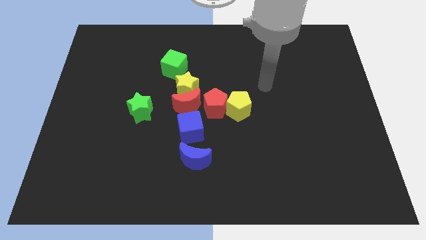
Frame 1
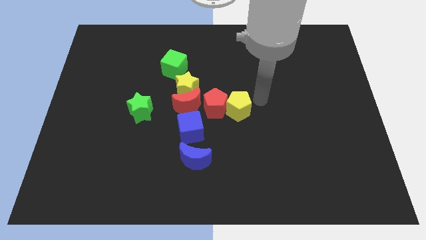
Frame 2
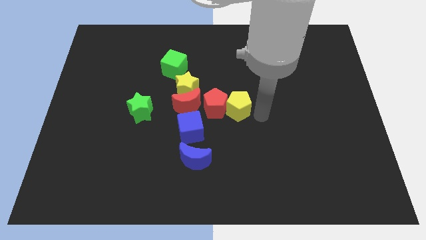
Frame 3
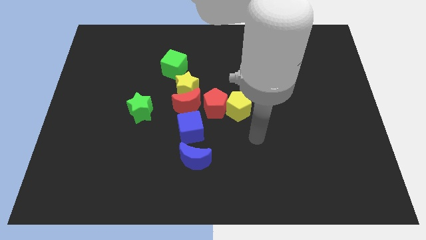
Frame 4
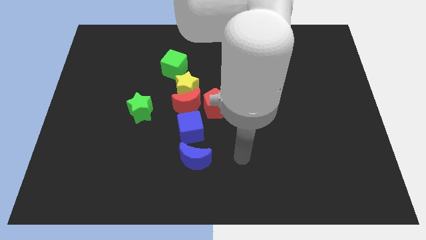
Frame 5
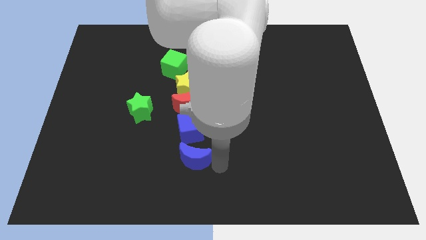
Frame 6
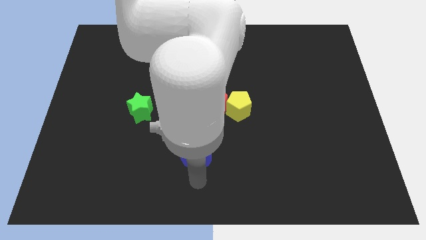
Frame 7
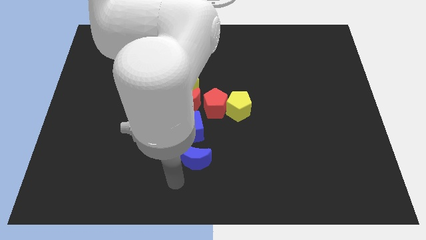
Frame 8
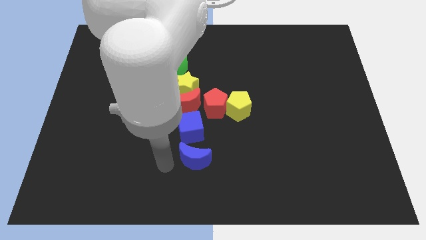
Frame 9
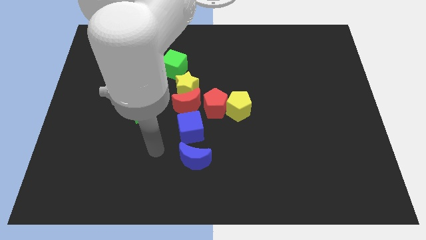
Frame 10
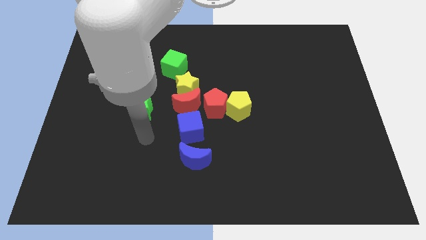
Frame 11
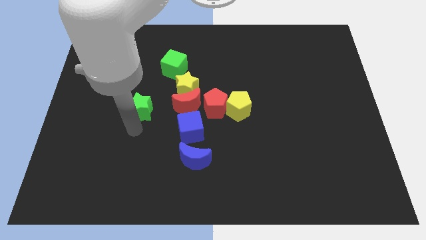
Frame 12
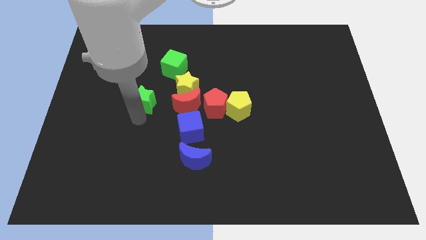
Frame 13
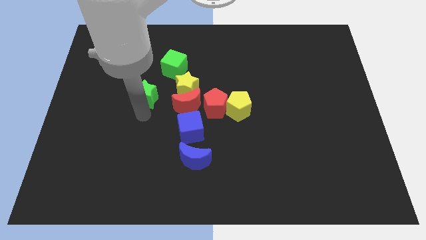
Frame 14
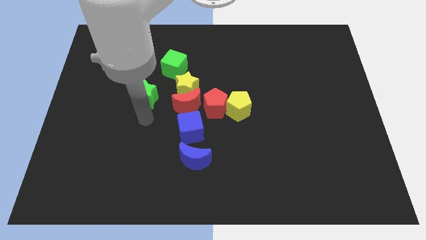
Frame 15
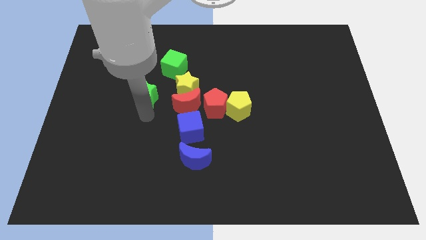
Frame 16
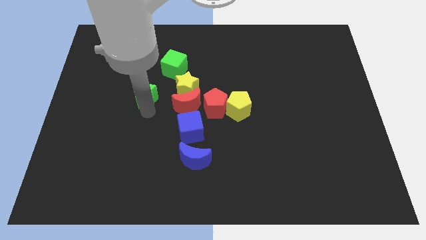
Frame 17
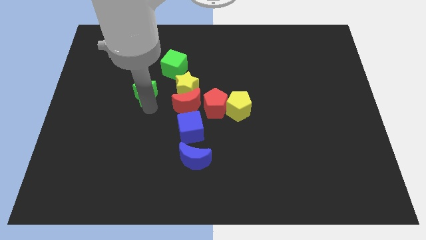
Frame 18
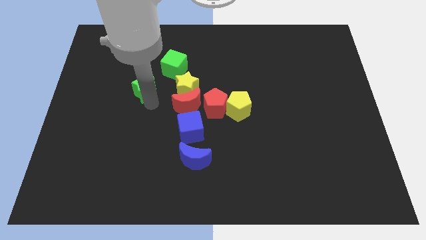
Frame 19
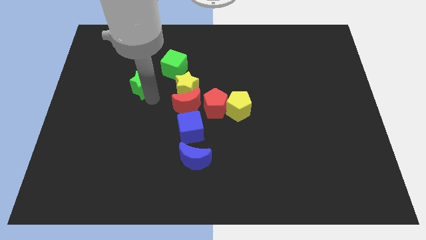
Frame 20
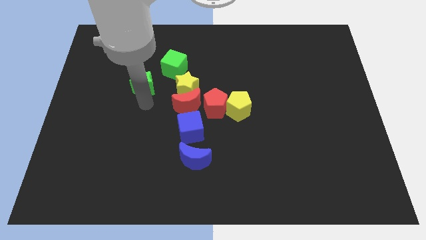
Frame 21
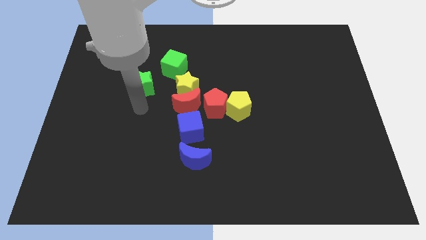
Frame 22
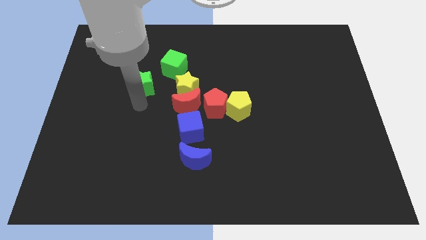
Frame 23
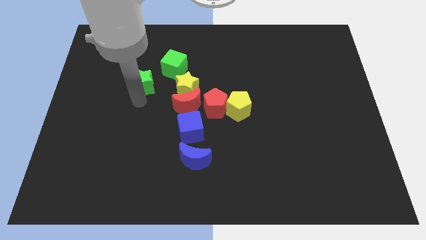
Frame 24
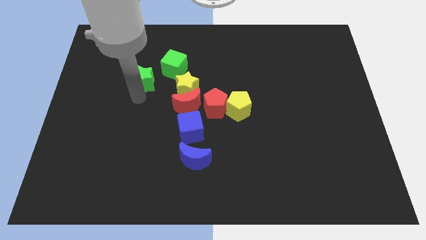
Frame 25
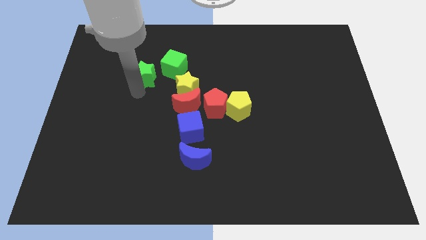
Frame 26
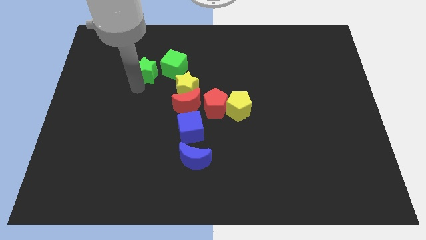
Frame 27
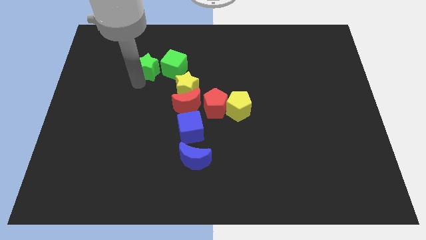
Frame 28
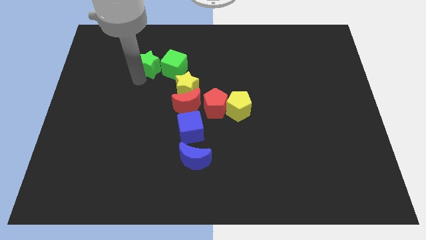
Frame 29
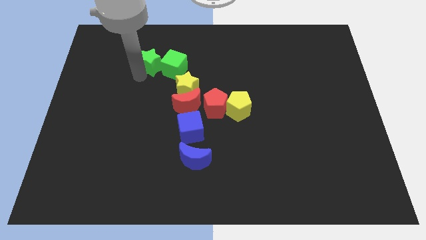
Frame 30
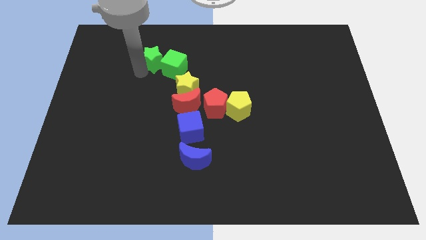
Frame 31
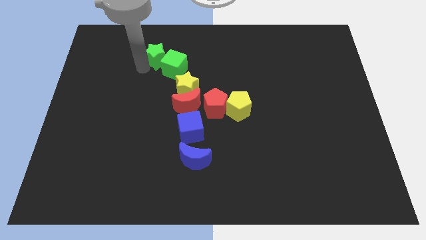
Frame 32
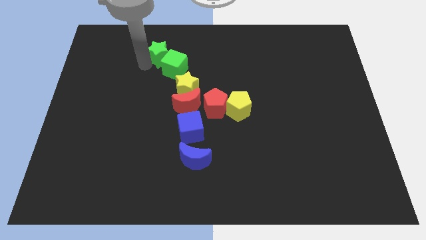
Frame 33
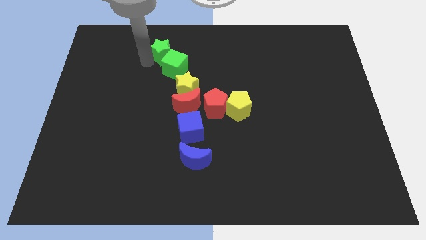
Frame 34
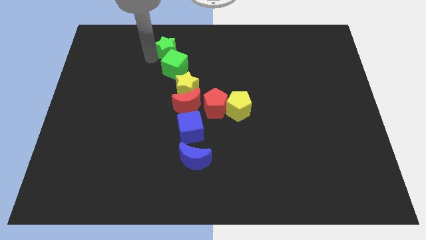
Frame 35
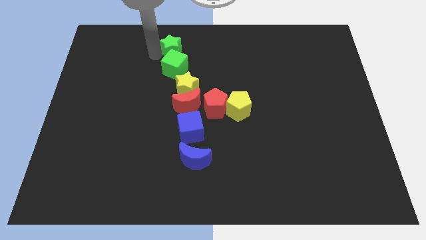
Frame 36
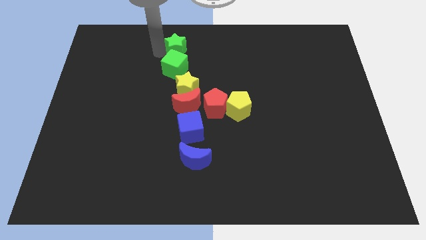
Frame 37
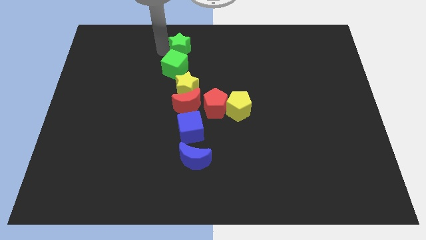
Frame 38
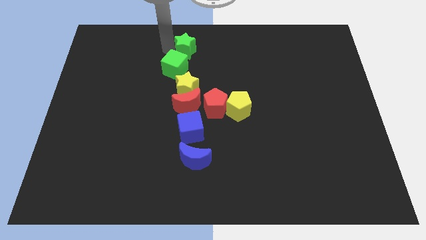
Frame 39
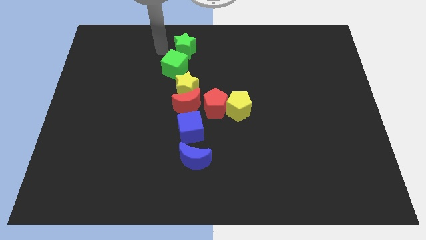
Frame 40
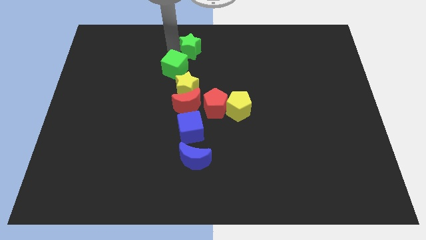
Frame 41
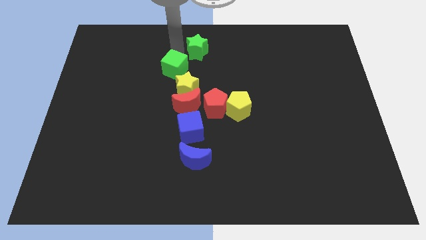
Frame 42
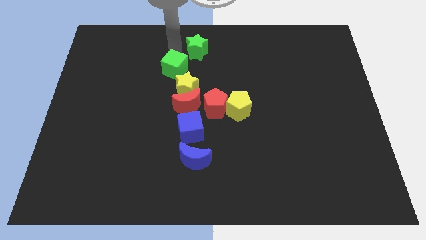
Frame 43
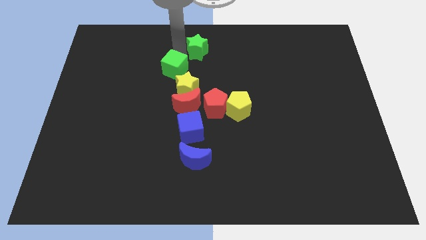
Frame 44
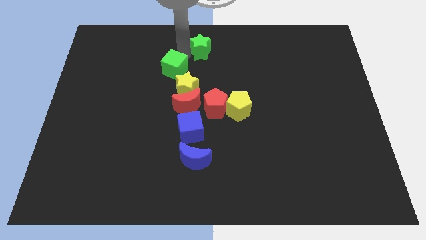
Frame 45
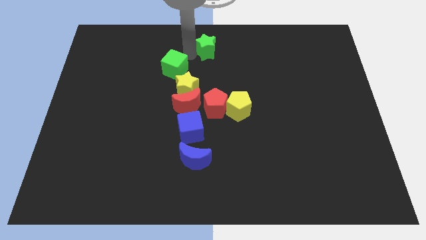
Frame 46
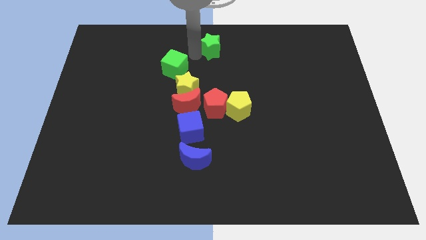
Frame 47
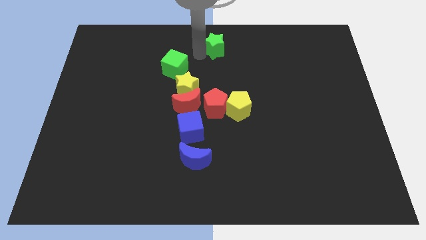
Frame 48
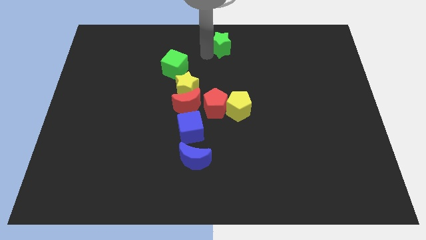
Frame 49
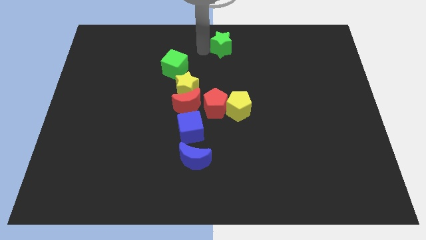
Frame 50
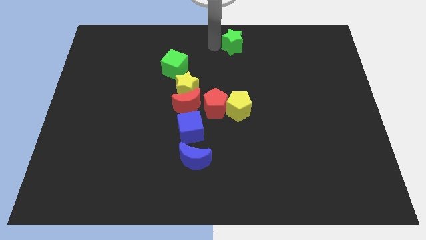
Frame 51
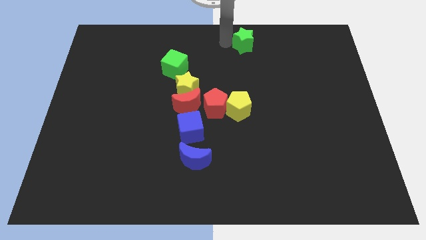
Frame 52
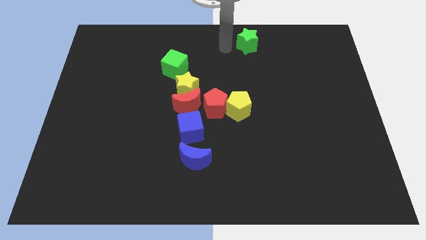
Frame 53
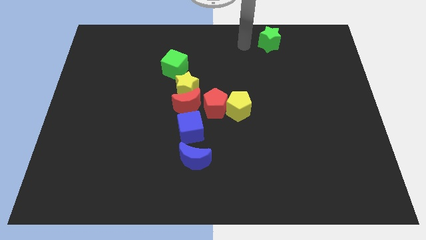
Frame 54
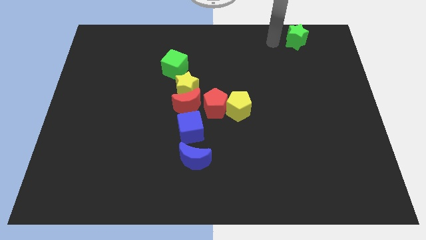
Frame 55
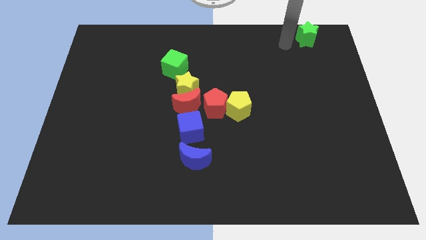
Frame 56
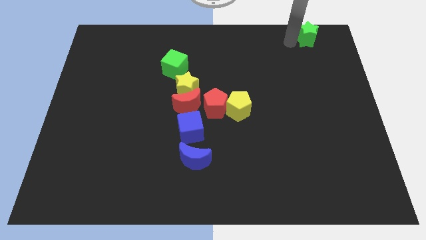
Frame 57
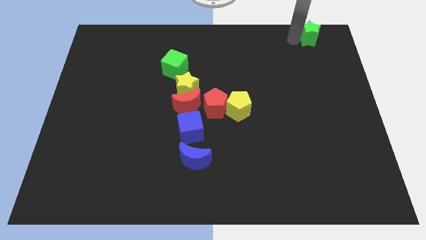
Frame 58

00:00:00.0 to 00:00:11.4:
move the green star to the upper right corner

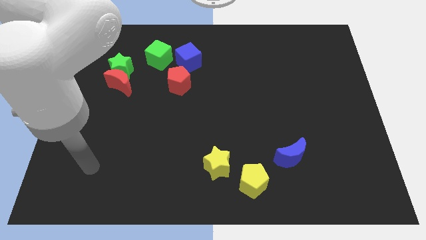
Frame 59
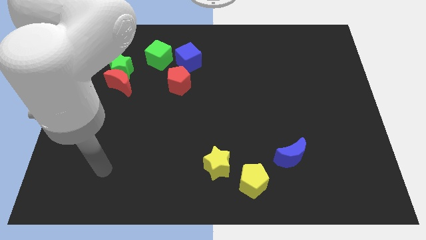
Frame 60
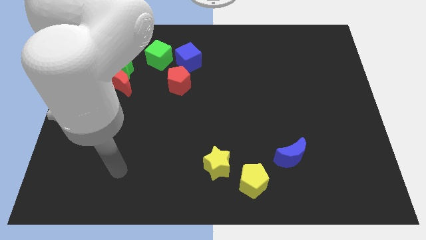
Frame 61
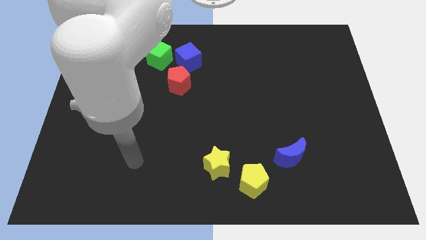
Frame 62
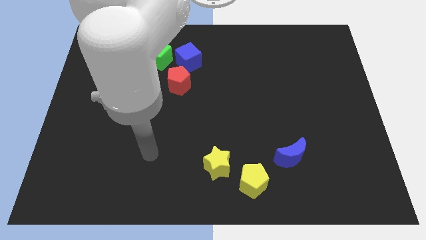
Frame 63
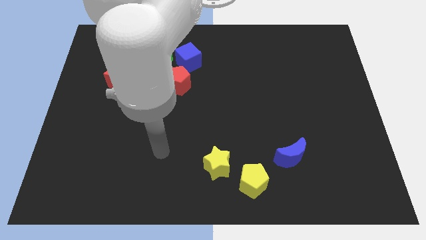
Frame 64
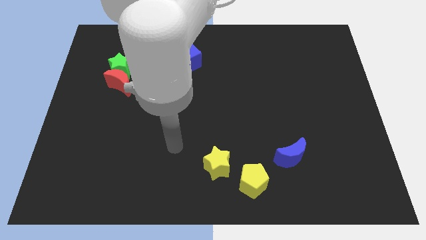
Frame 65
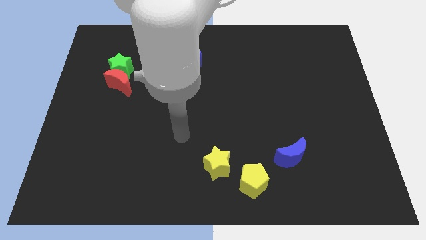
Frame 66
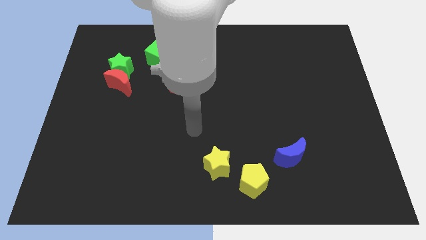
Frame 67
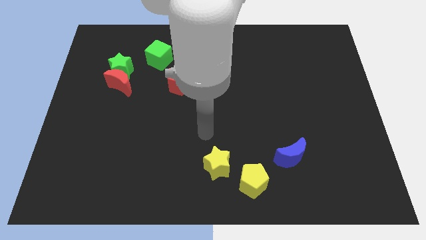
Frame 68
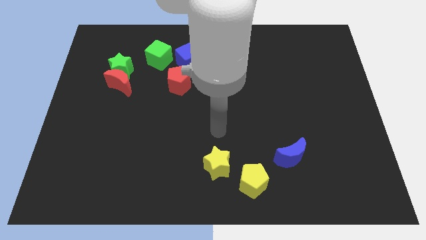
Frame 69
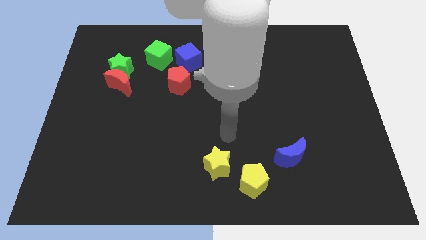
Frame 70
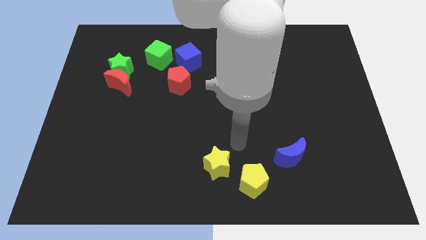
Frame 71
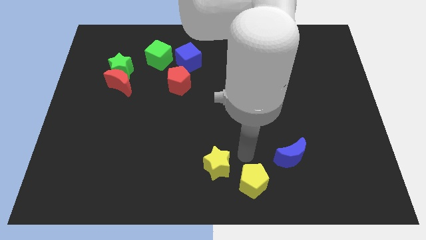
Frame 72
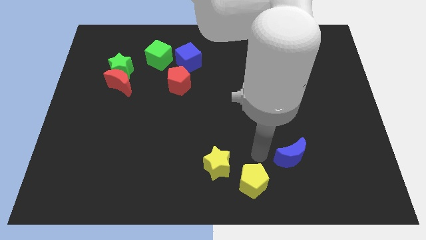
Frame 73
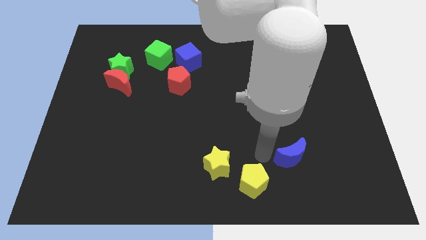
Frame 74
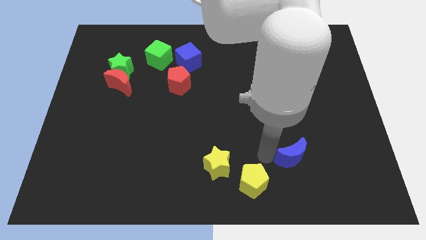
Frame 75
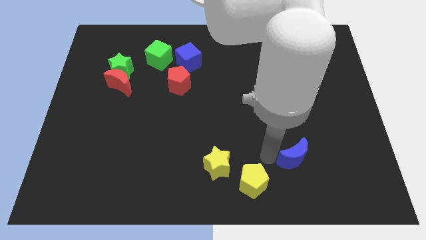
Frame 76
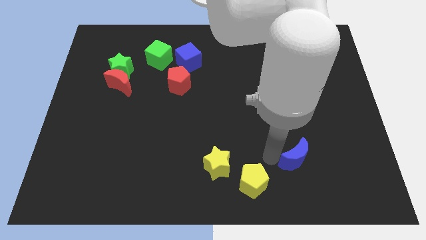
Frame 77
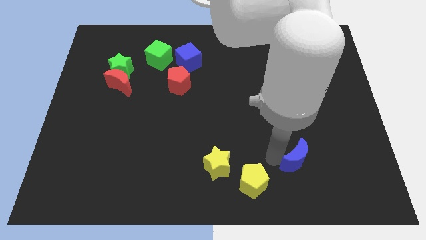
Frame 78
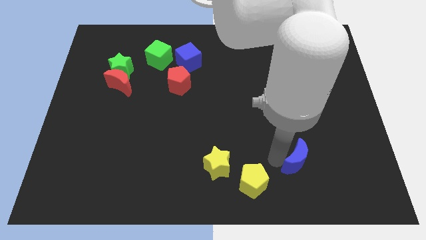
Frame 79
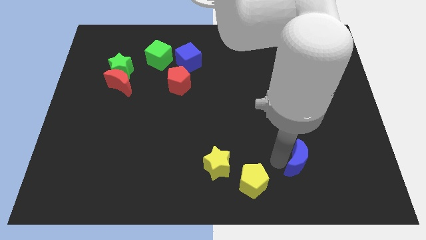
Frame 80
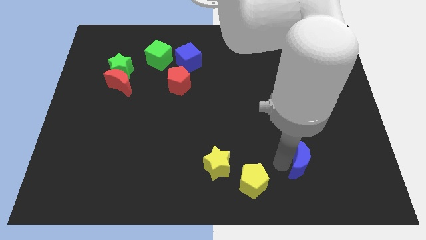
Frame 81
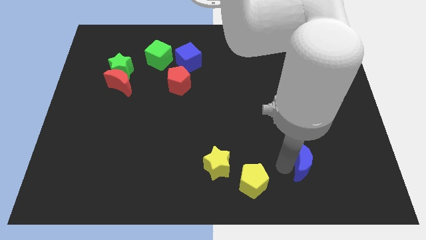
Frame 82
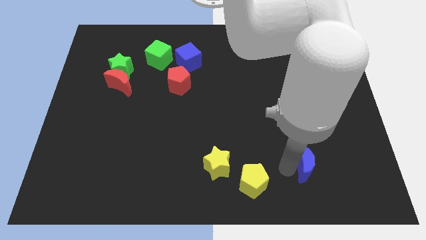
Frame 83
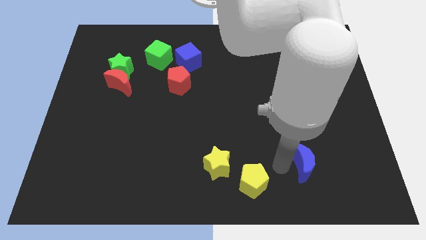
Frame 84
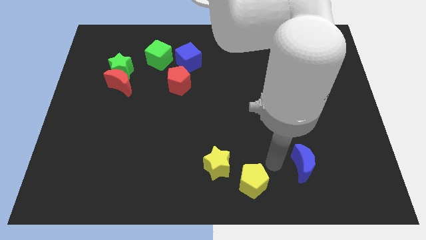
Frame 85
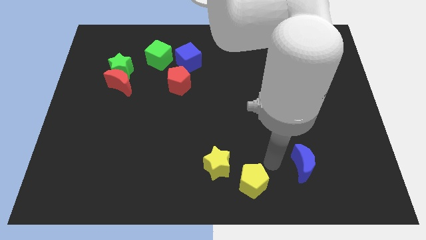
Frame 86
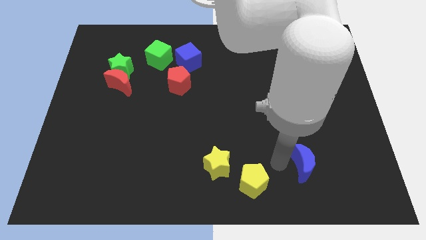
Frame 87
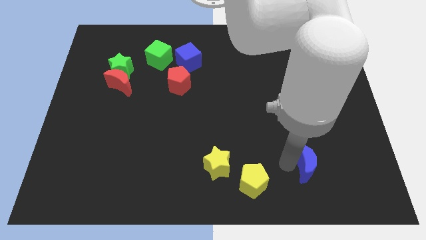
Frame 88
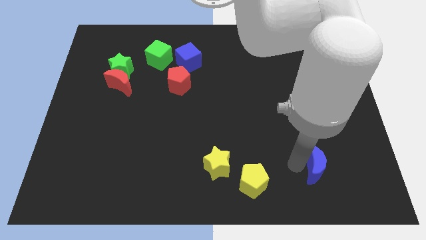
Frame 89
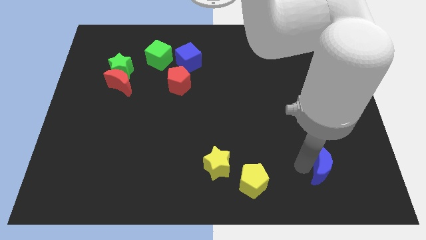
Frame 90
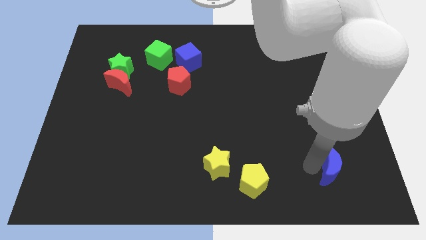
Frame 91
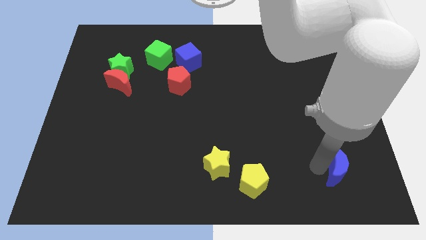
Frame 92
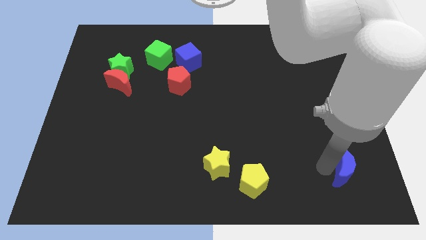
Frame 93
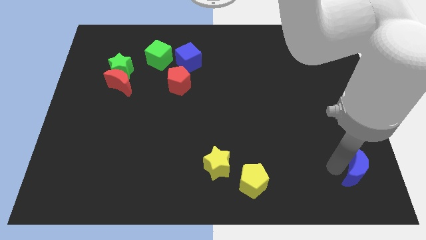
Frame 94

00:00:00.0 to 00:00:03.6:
put the blue moon to the bottom right
